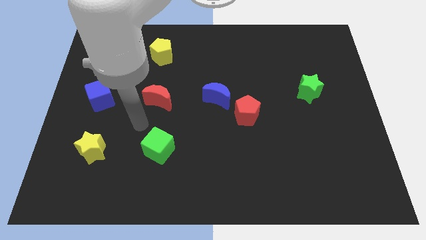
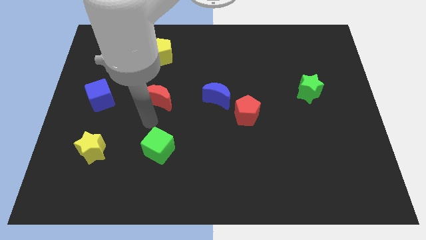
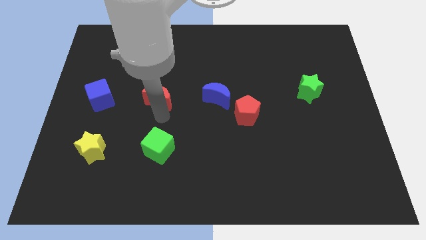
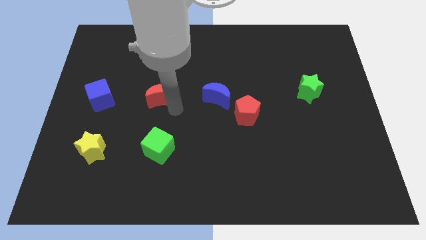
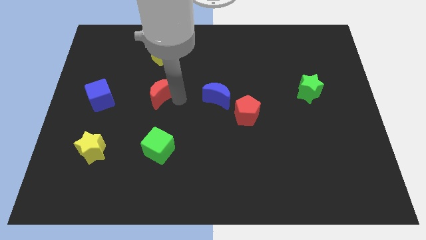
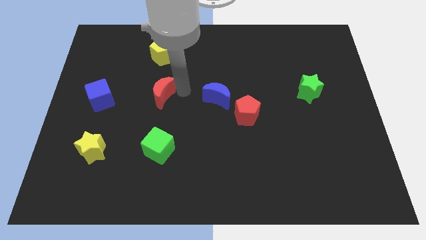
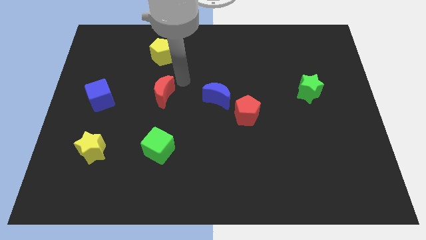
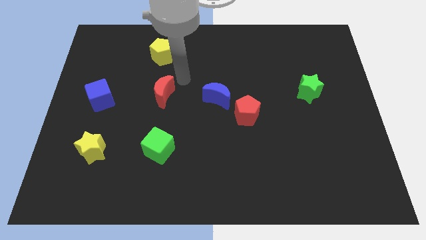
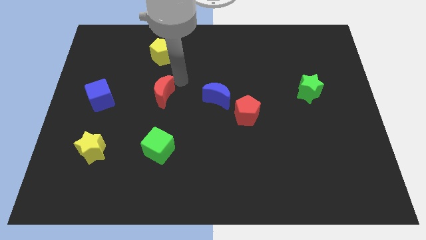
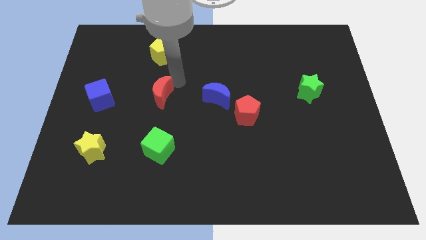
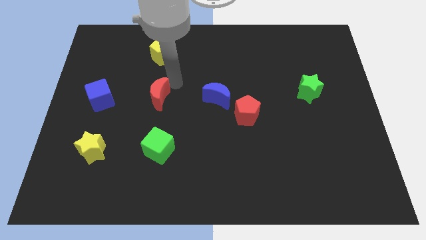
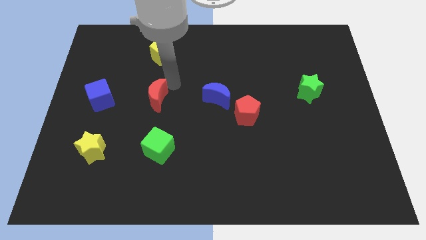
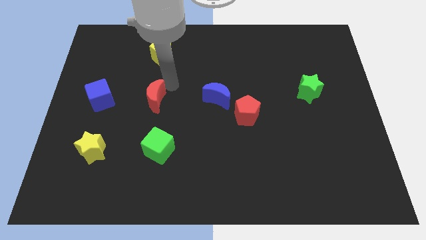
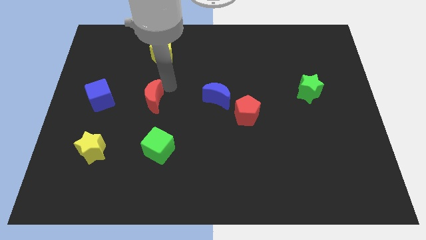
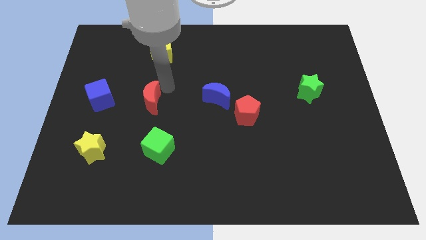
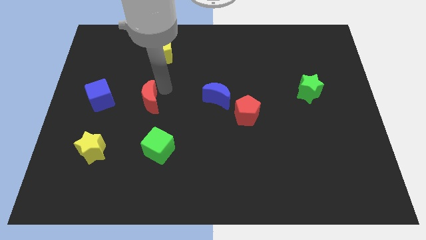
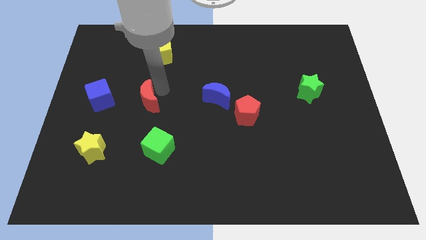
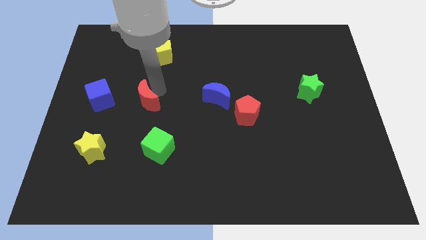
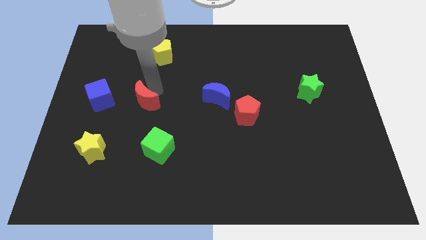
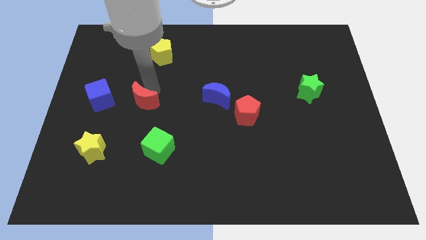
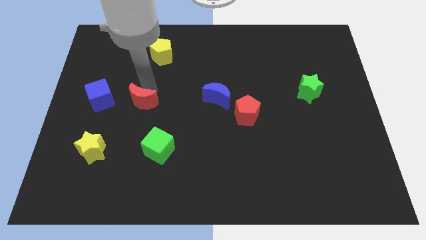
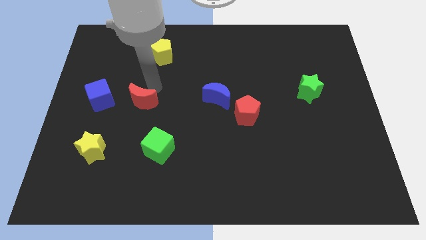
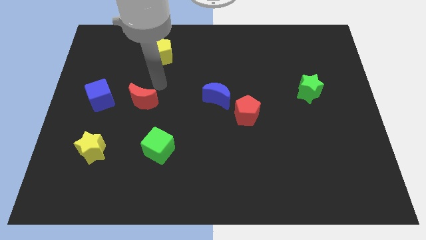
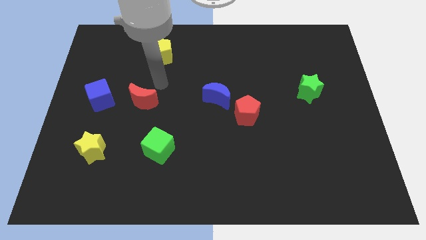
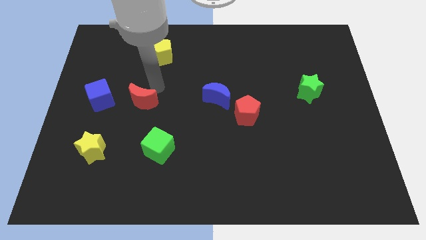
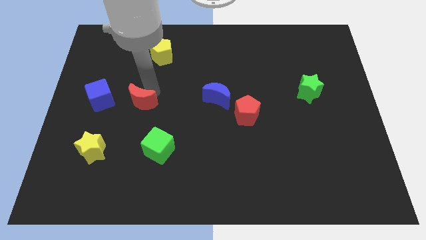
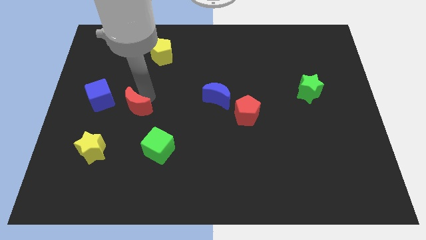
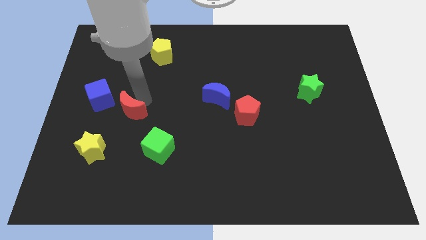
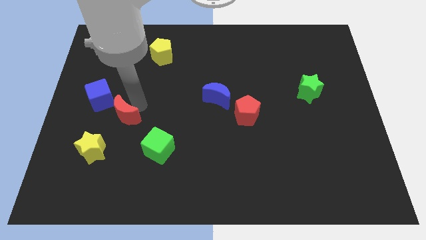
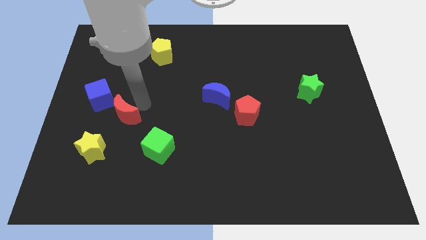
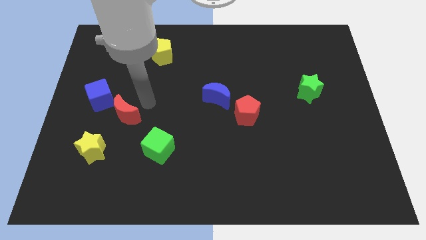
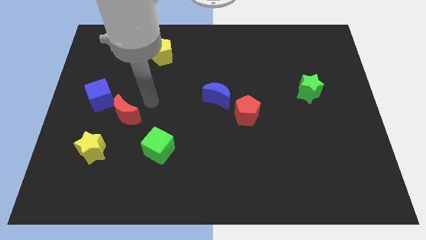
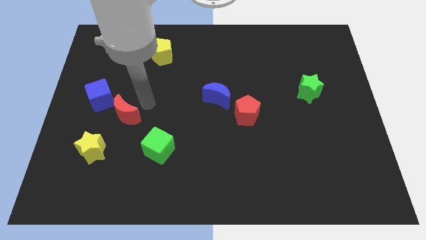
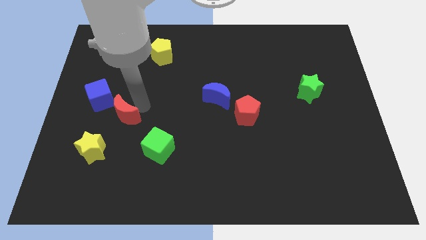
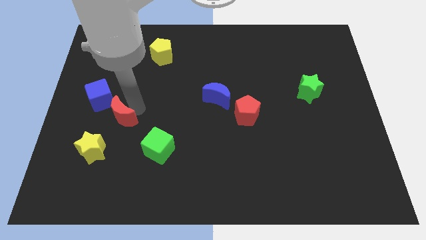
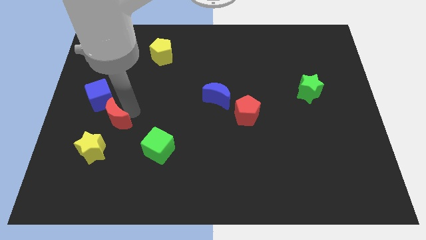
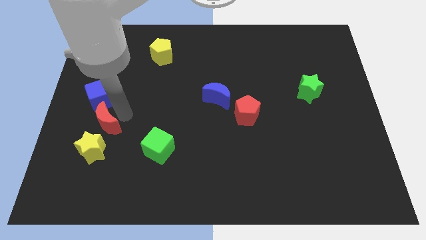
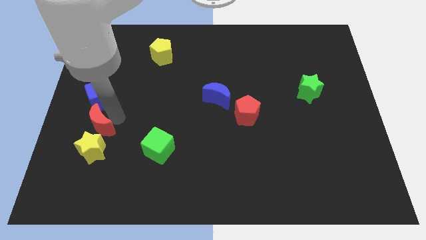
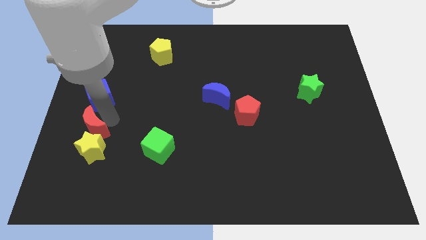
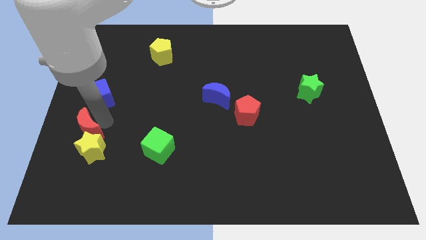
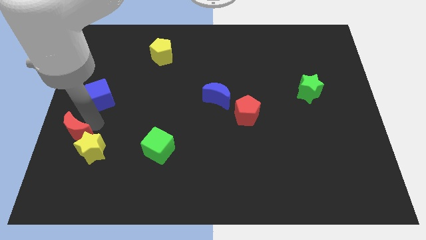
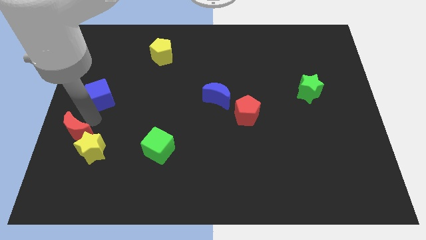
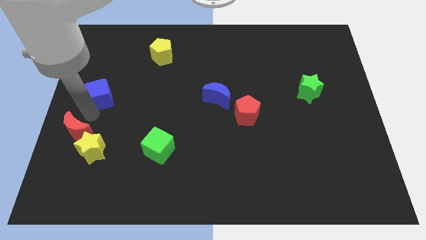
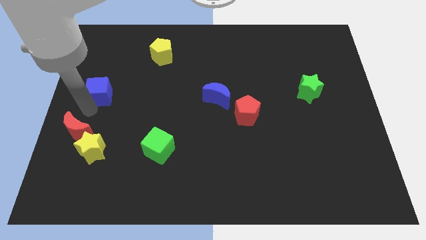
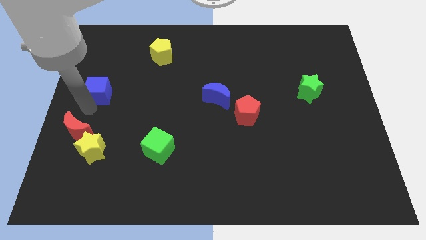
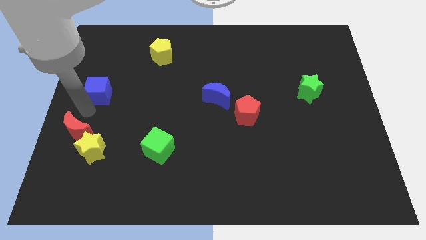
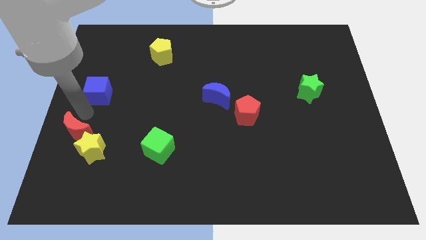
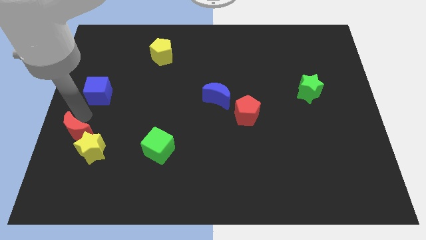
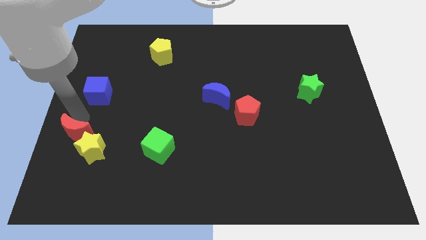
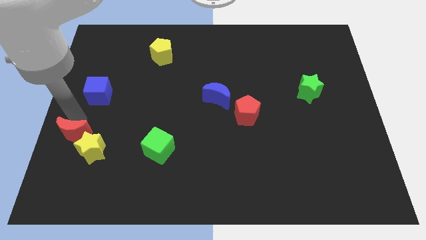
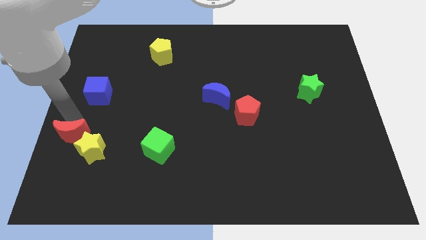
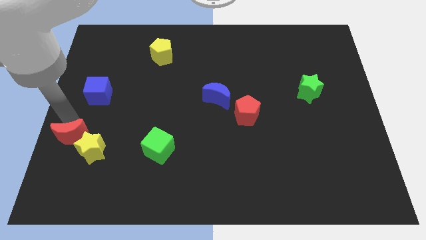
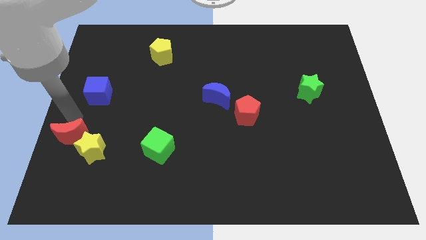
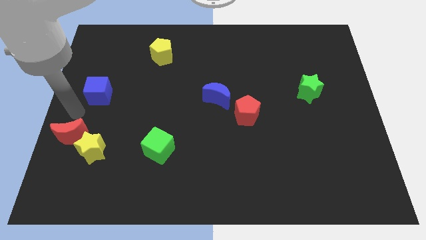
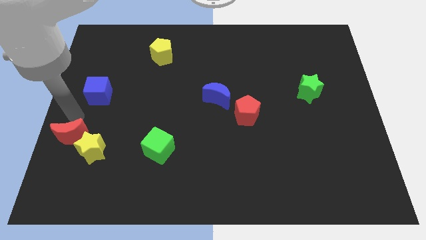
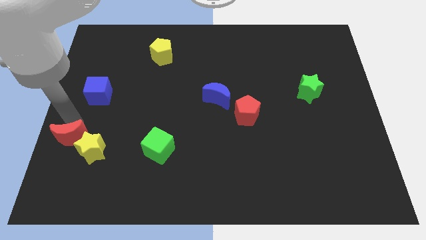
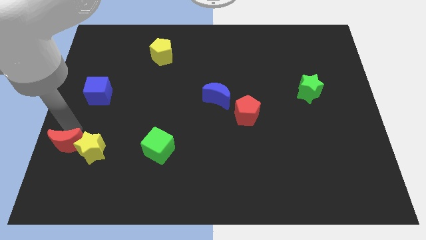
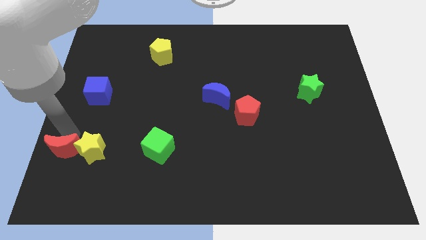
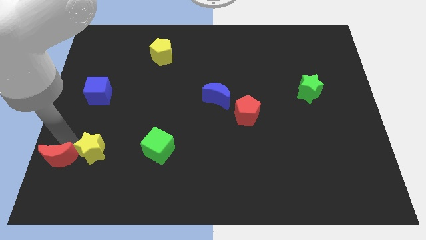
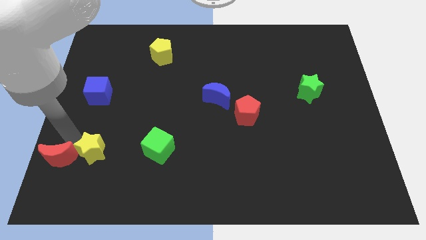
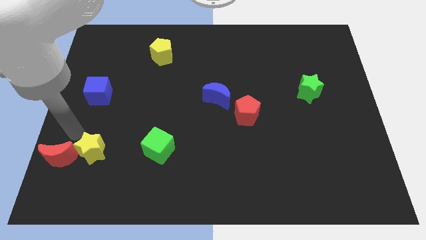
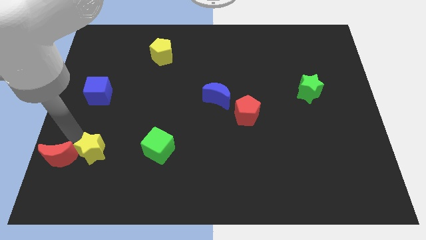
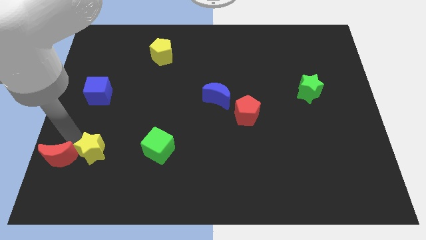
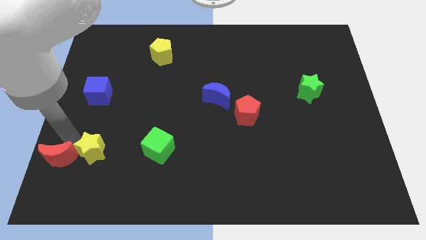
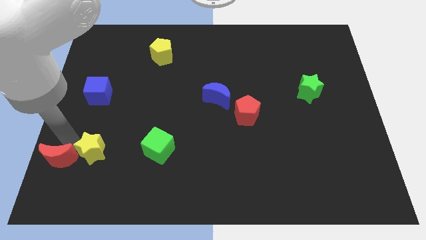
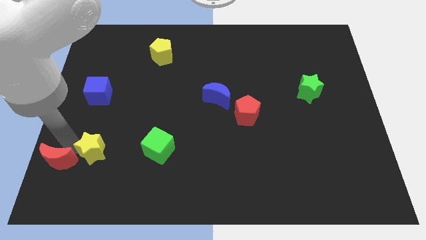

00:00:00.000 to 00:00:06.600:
slide the red moon to the lower left corner
